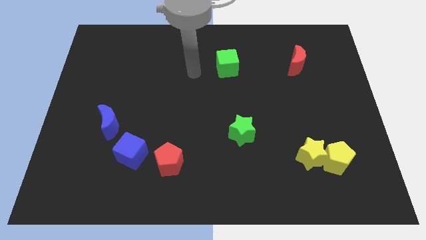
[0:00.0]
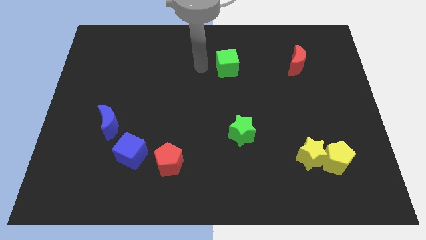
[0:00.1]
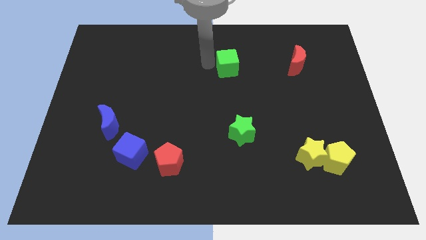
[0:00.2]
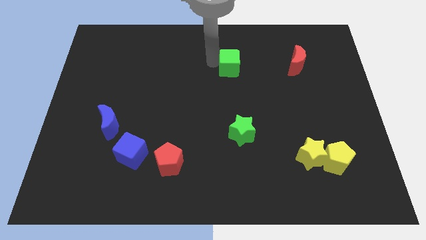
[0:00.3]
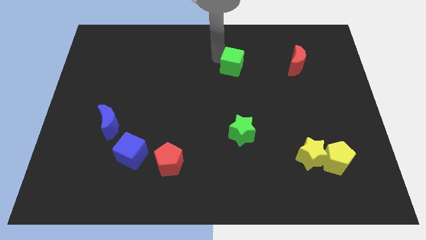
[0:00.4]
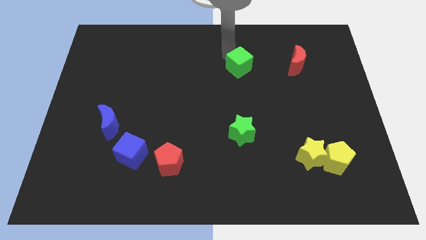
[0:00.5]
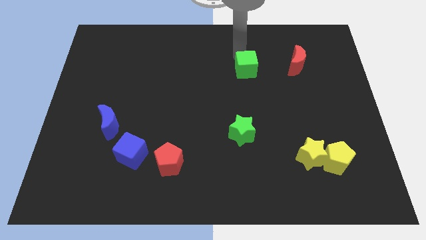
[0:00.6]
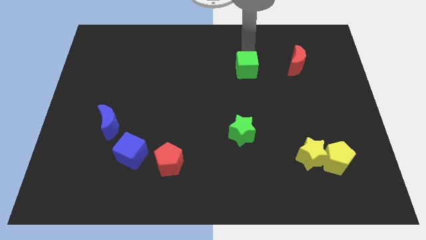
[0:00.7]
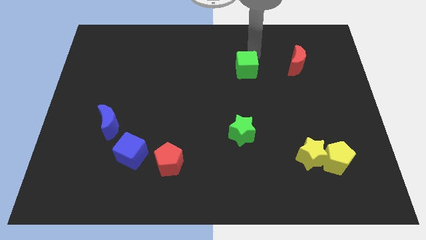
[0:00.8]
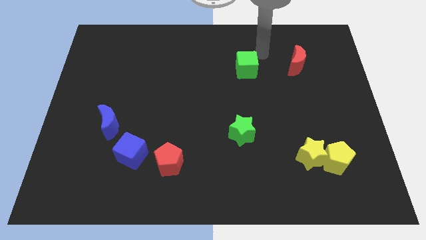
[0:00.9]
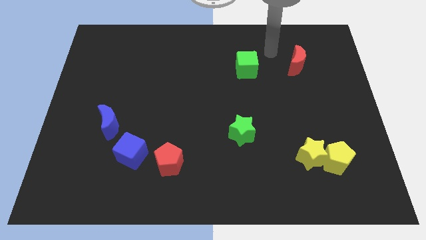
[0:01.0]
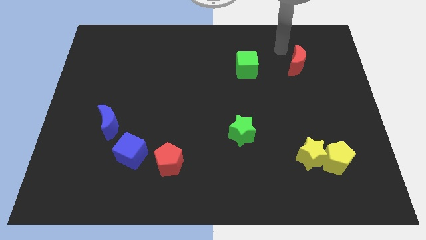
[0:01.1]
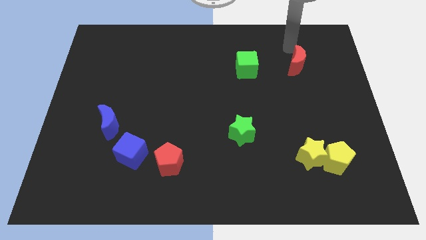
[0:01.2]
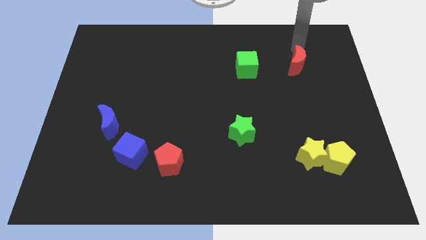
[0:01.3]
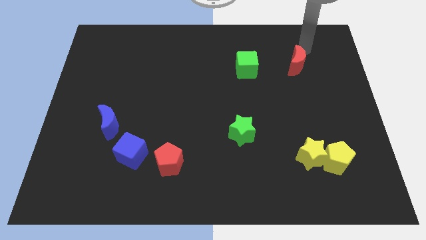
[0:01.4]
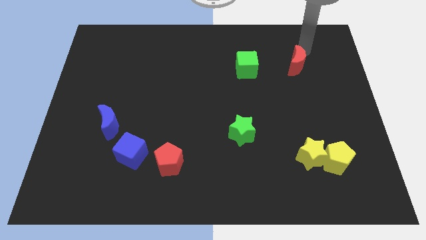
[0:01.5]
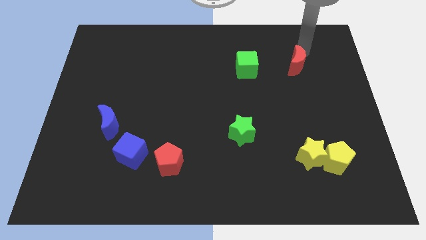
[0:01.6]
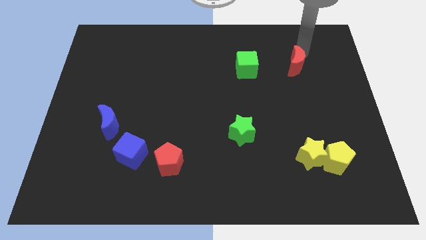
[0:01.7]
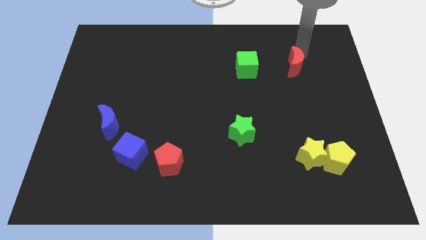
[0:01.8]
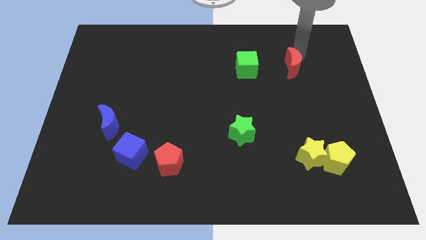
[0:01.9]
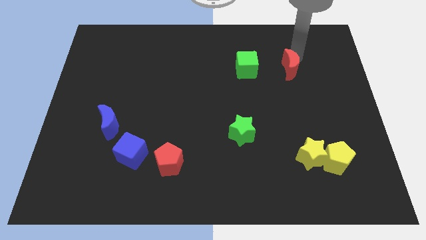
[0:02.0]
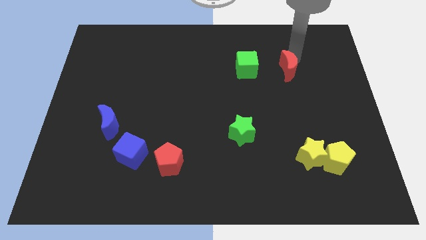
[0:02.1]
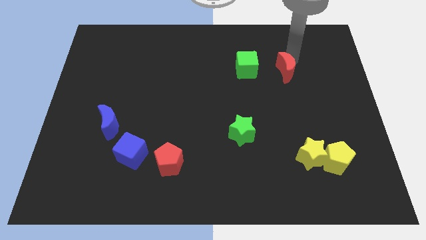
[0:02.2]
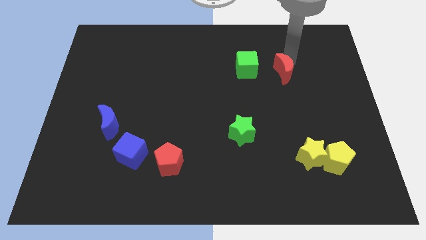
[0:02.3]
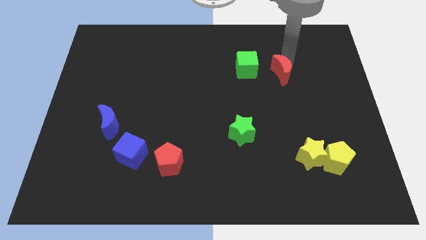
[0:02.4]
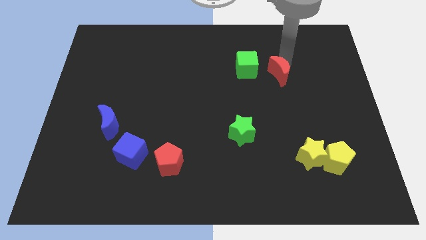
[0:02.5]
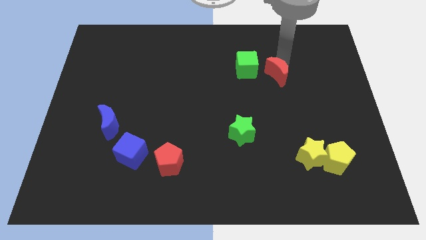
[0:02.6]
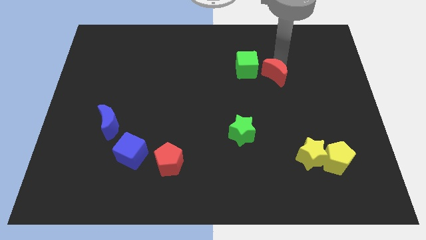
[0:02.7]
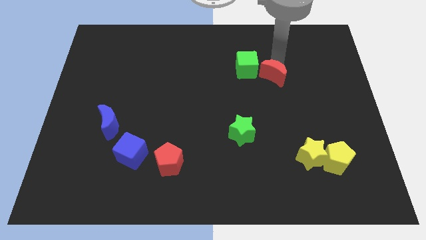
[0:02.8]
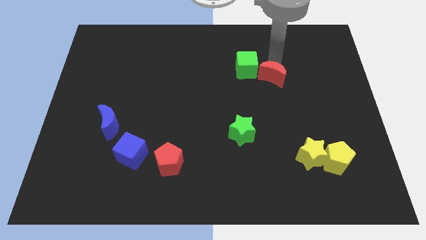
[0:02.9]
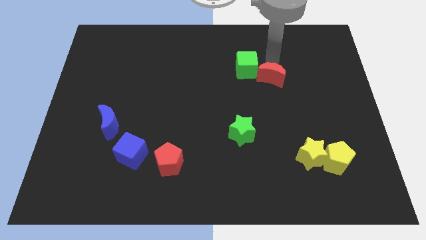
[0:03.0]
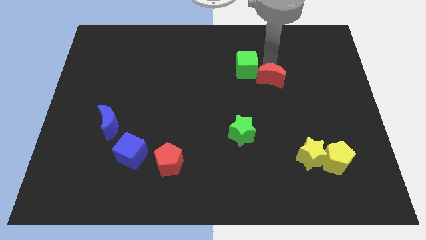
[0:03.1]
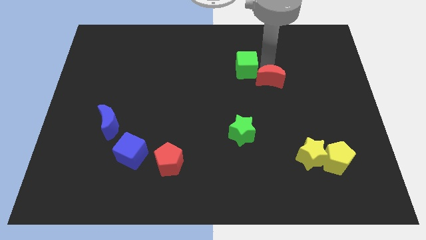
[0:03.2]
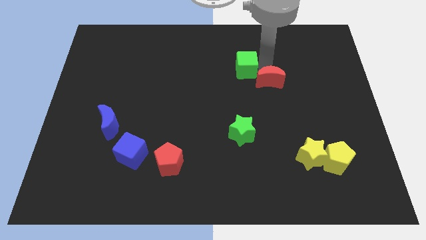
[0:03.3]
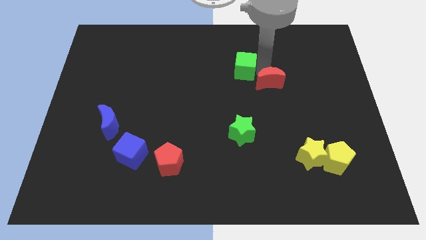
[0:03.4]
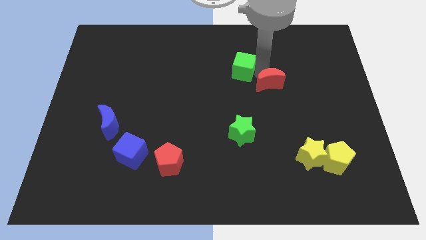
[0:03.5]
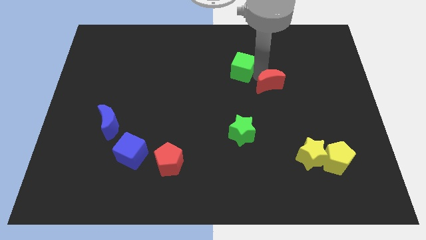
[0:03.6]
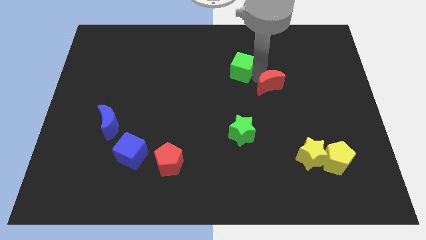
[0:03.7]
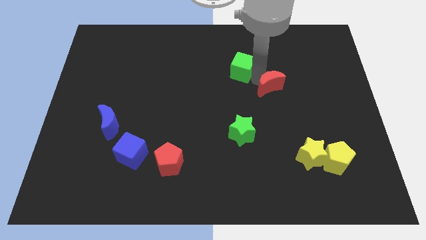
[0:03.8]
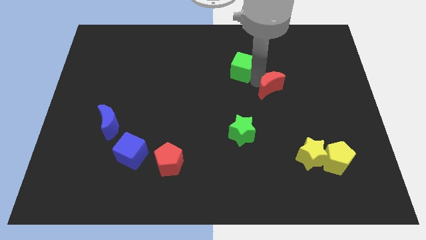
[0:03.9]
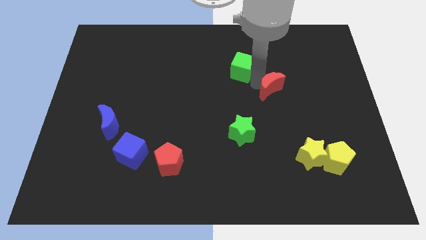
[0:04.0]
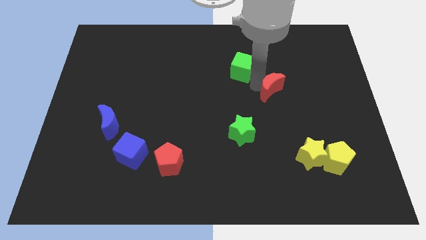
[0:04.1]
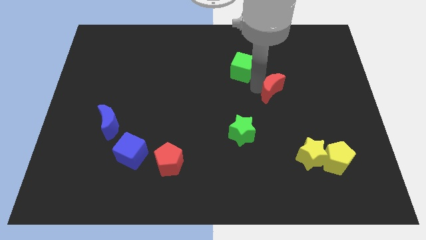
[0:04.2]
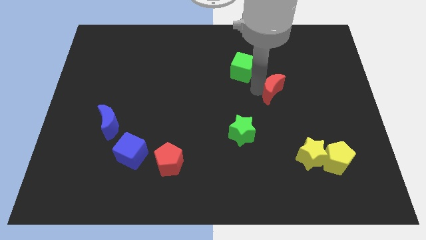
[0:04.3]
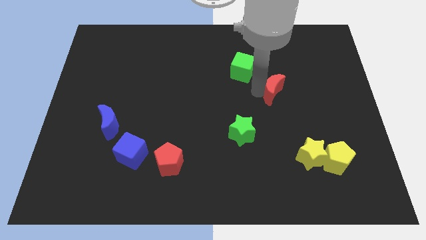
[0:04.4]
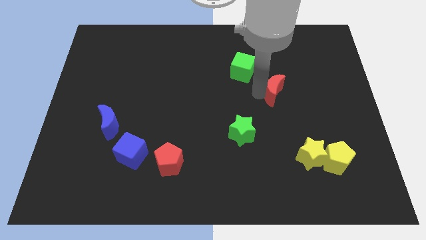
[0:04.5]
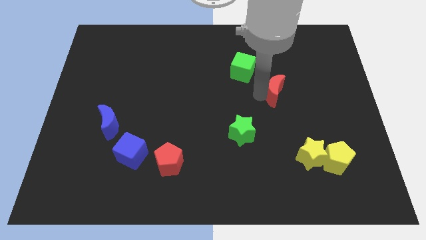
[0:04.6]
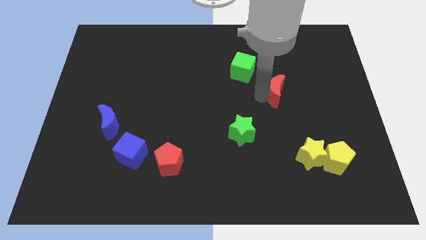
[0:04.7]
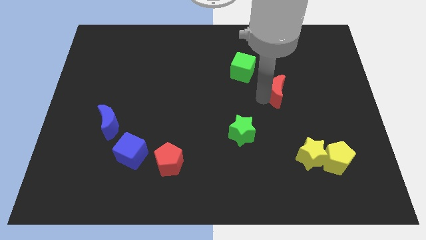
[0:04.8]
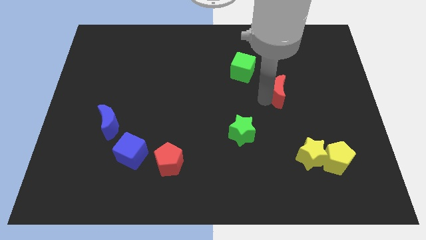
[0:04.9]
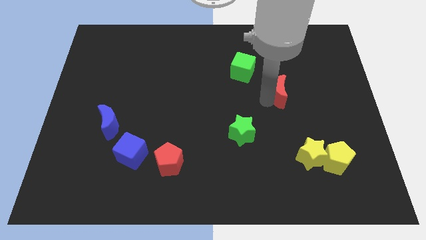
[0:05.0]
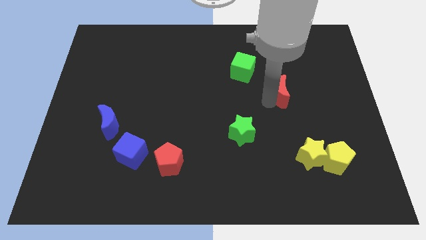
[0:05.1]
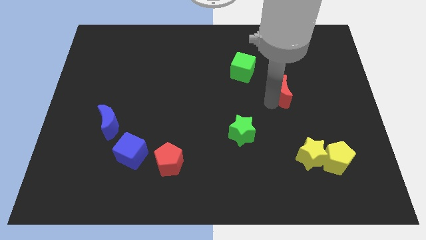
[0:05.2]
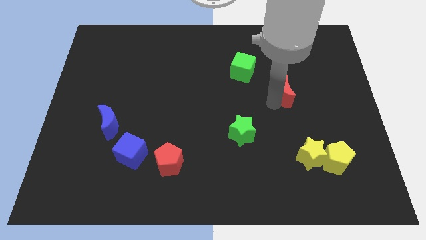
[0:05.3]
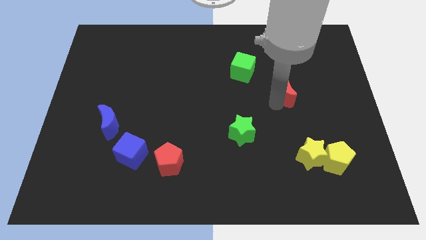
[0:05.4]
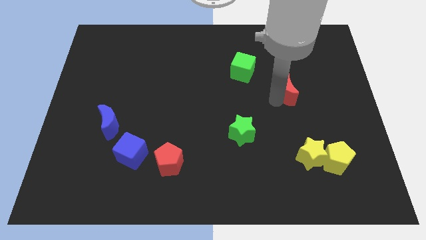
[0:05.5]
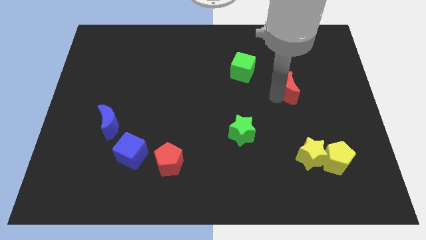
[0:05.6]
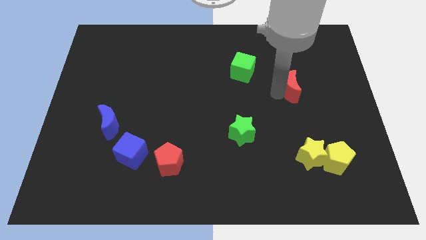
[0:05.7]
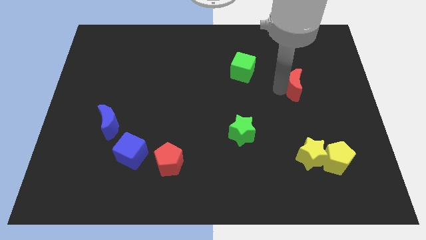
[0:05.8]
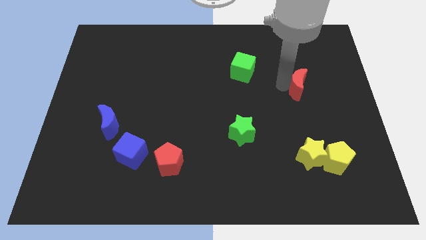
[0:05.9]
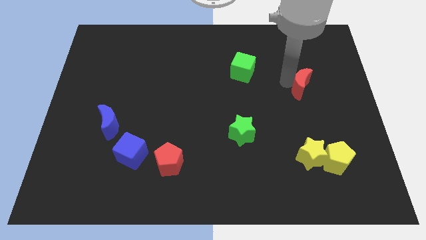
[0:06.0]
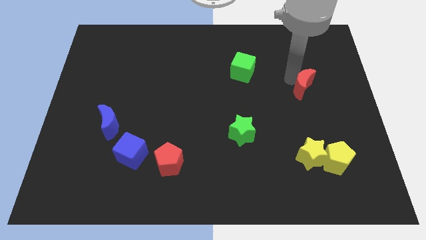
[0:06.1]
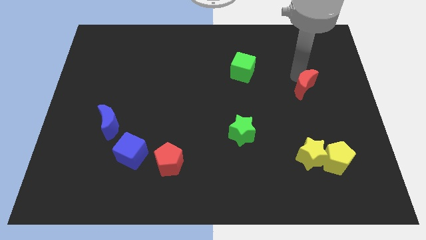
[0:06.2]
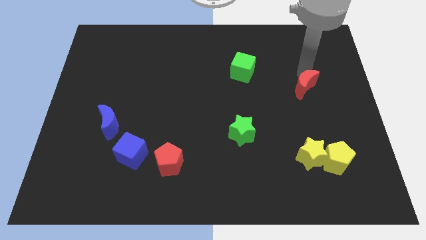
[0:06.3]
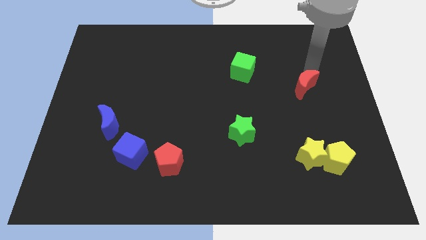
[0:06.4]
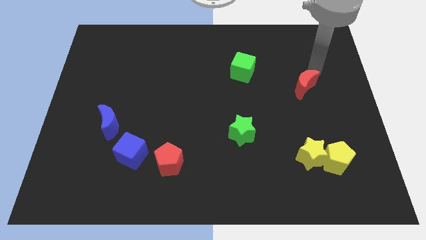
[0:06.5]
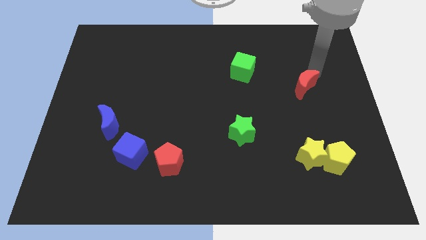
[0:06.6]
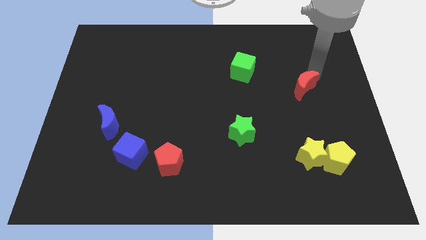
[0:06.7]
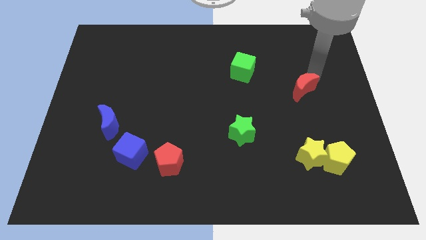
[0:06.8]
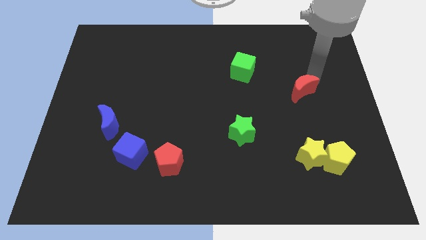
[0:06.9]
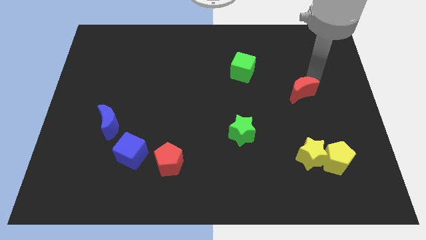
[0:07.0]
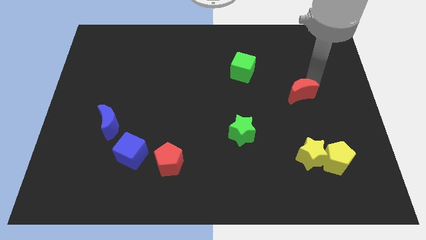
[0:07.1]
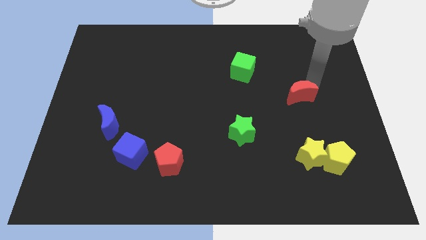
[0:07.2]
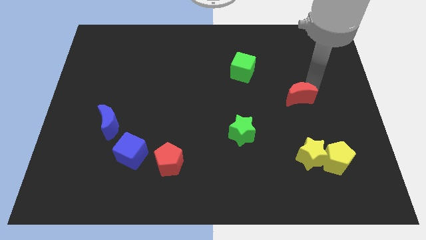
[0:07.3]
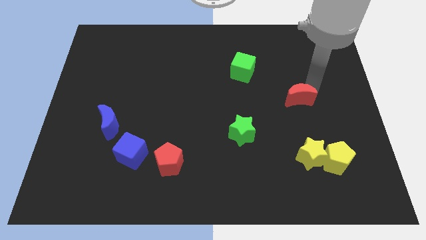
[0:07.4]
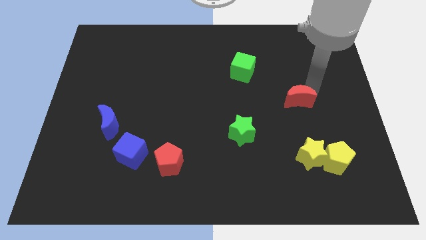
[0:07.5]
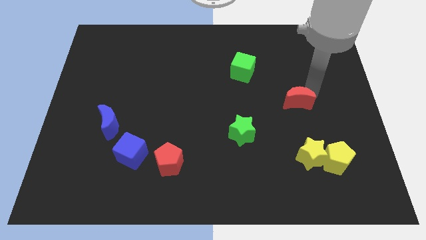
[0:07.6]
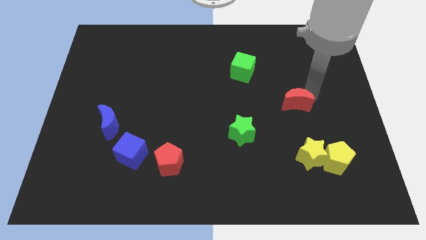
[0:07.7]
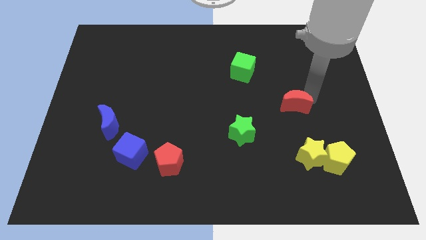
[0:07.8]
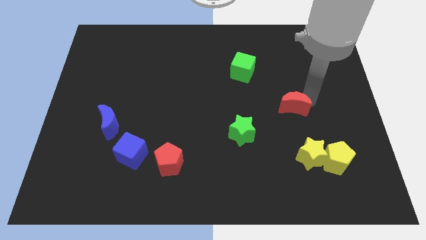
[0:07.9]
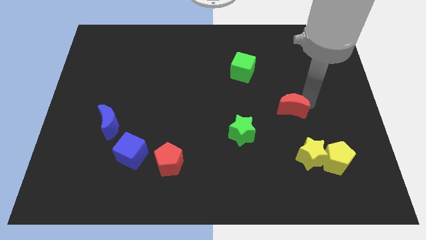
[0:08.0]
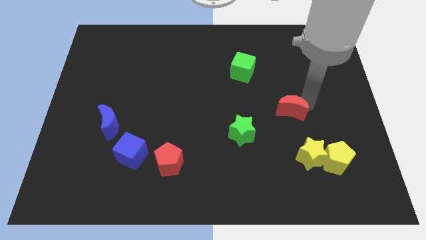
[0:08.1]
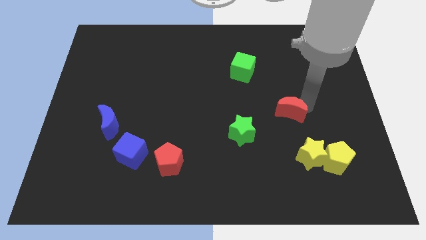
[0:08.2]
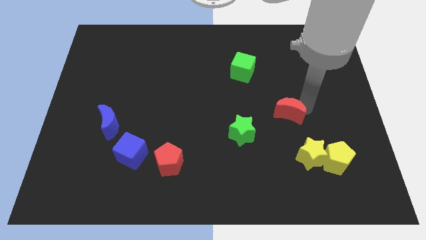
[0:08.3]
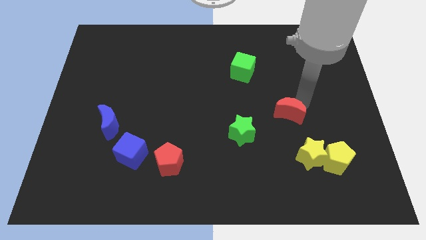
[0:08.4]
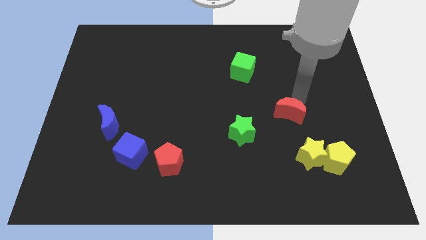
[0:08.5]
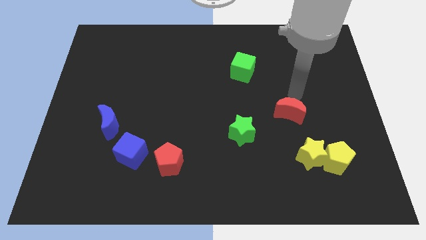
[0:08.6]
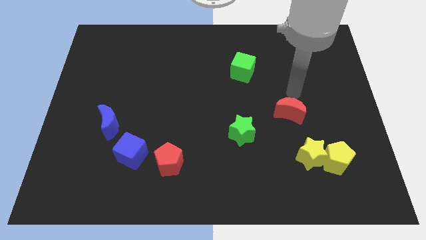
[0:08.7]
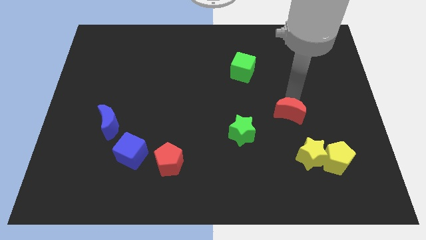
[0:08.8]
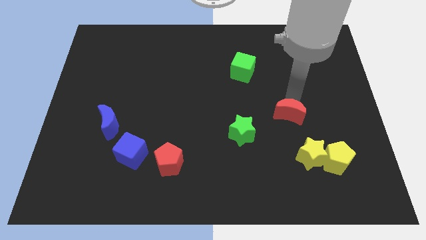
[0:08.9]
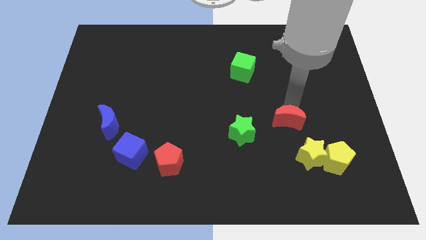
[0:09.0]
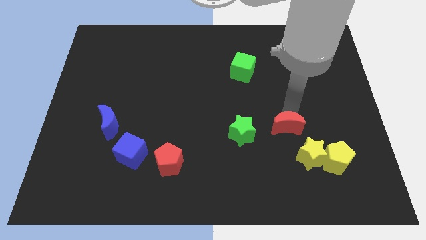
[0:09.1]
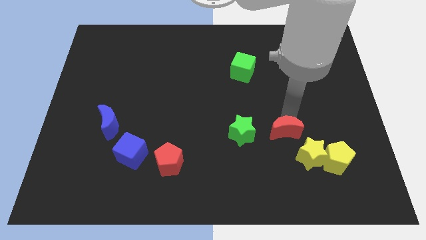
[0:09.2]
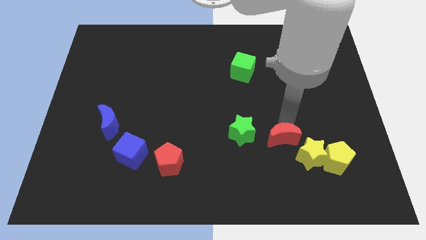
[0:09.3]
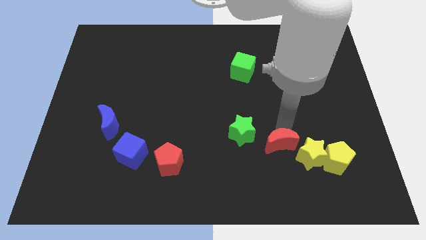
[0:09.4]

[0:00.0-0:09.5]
slide the red moon just left of the yellow pentagon
